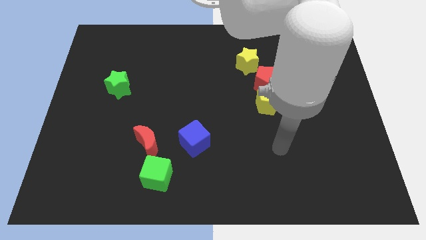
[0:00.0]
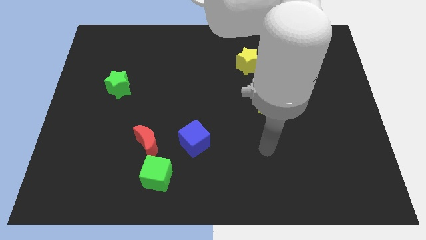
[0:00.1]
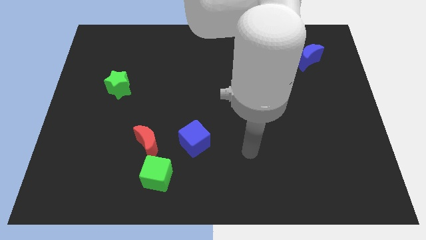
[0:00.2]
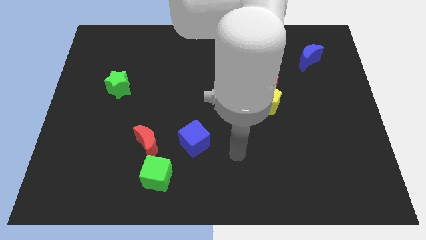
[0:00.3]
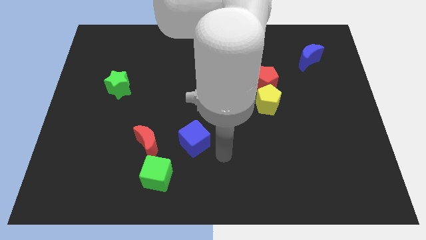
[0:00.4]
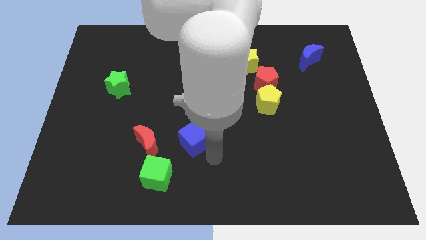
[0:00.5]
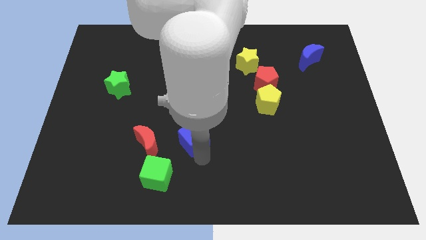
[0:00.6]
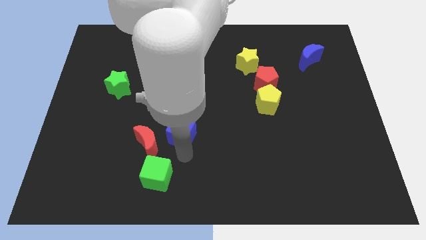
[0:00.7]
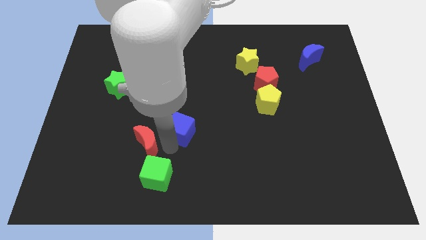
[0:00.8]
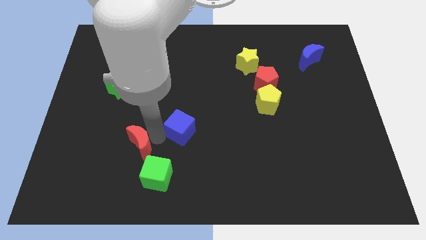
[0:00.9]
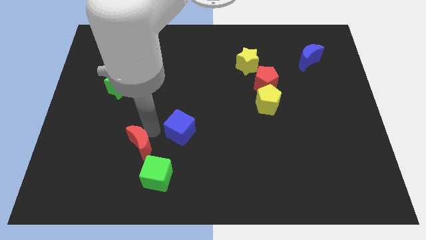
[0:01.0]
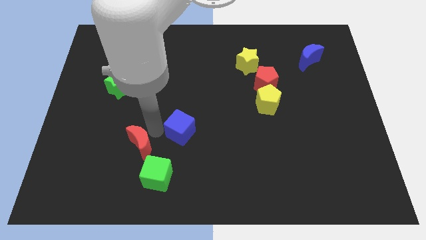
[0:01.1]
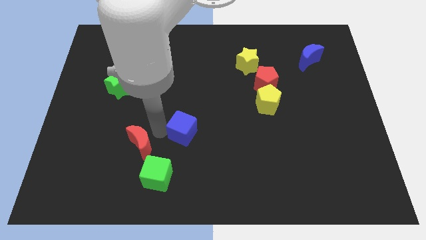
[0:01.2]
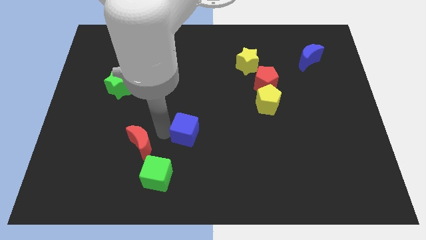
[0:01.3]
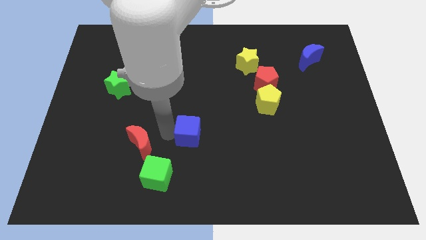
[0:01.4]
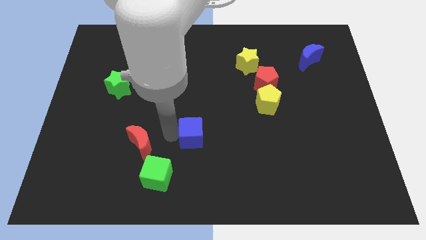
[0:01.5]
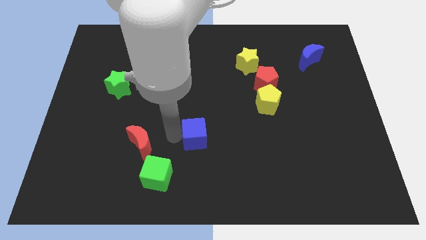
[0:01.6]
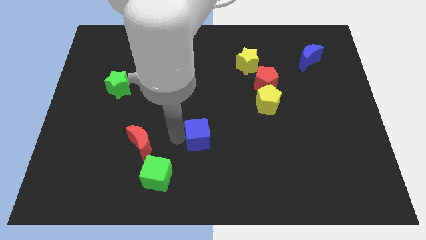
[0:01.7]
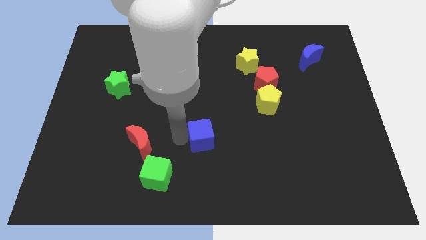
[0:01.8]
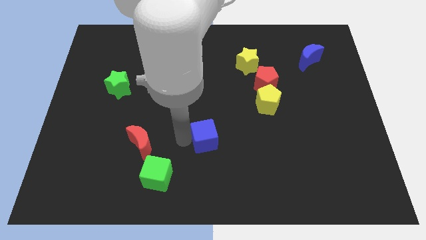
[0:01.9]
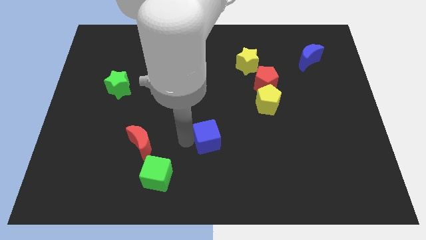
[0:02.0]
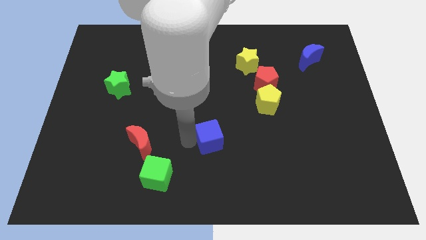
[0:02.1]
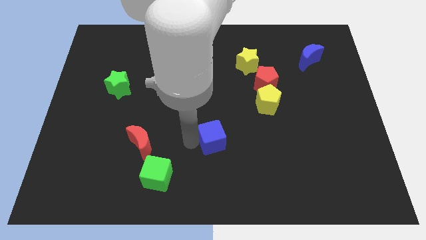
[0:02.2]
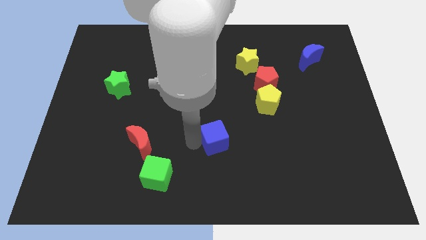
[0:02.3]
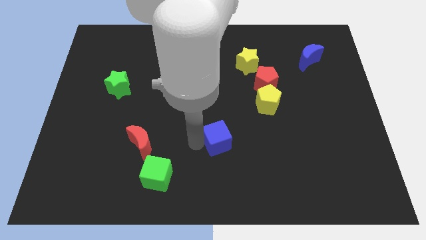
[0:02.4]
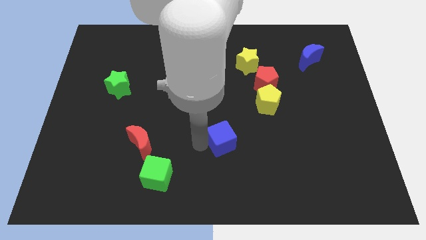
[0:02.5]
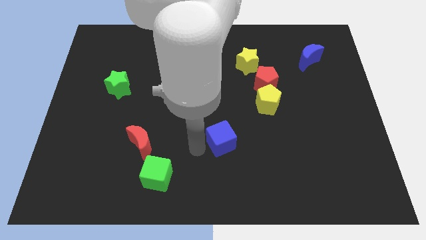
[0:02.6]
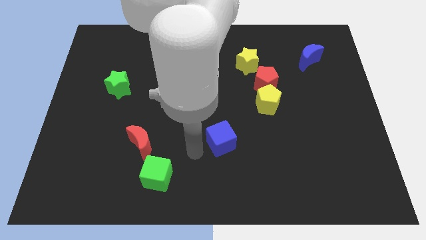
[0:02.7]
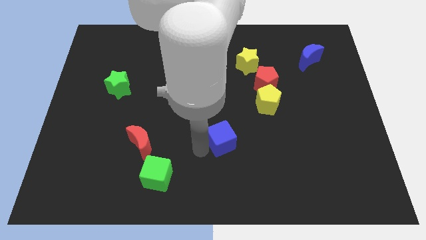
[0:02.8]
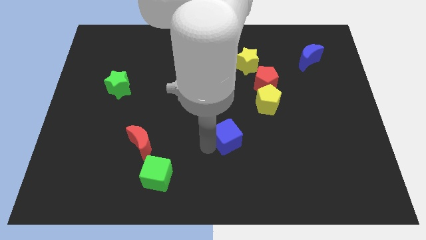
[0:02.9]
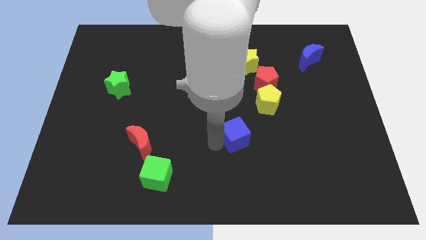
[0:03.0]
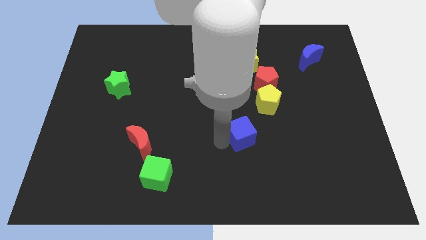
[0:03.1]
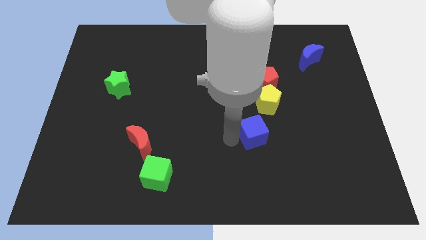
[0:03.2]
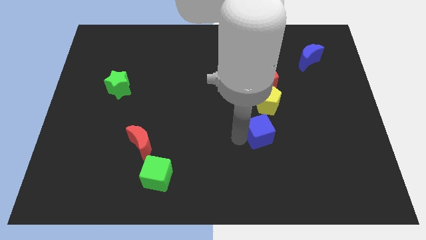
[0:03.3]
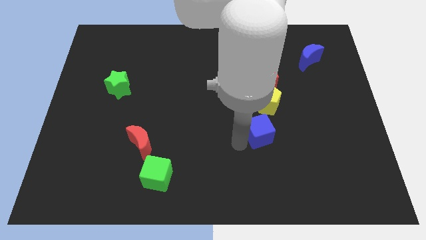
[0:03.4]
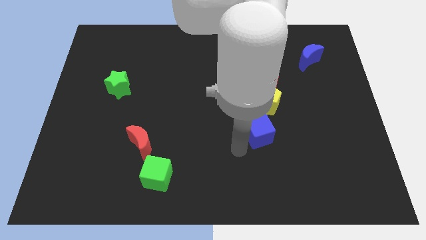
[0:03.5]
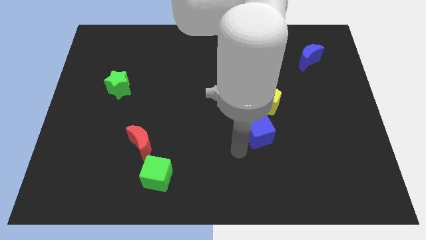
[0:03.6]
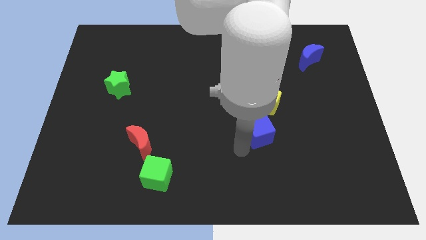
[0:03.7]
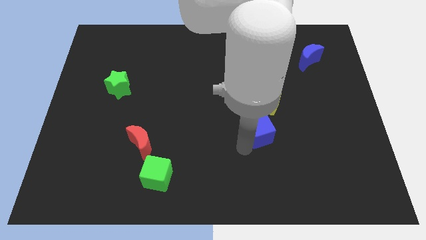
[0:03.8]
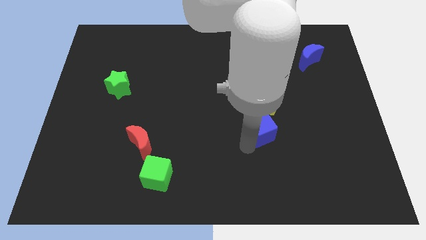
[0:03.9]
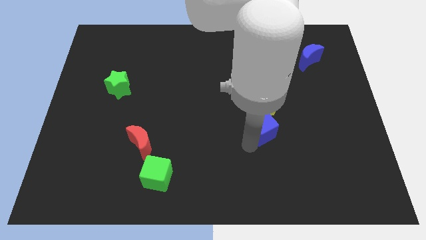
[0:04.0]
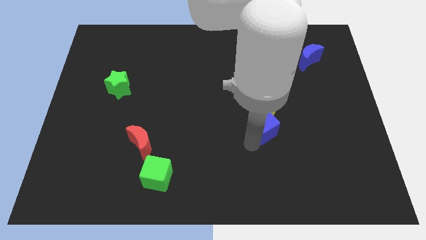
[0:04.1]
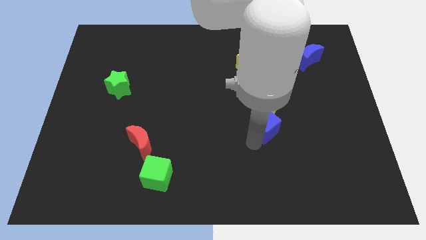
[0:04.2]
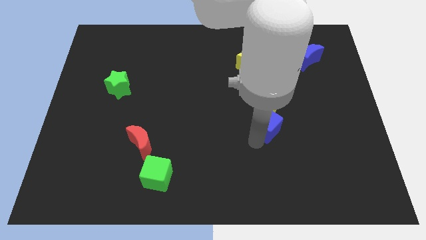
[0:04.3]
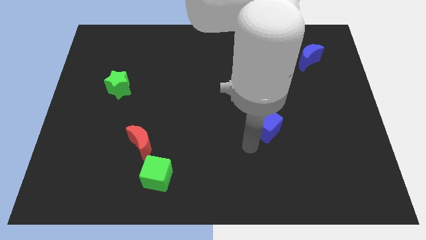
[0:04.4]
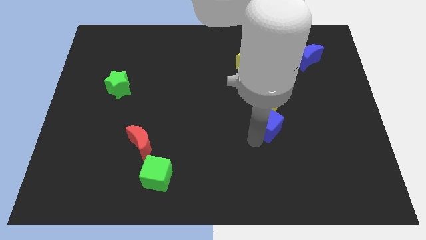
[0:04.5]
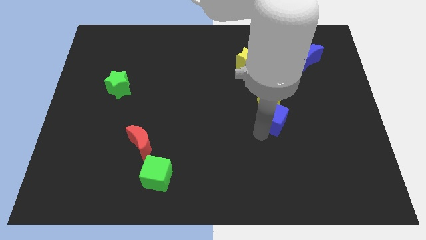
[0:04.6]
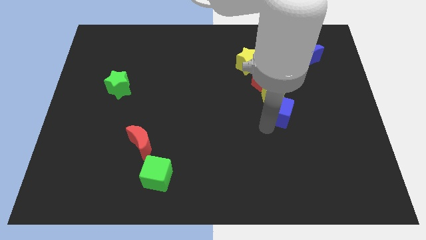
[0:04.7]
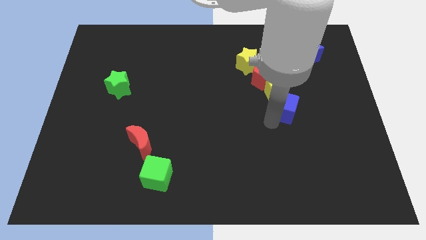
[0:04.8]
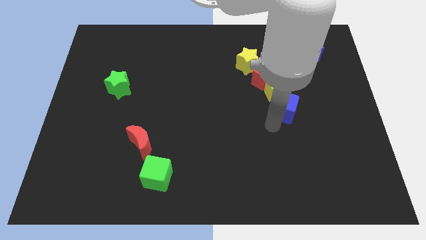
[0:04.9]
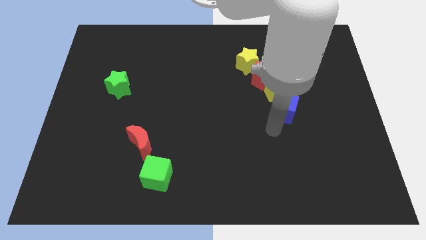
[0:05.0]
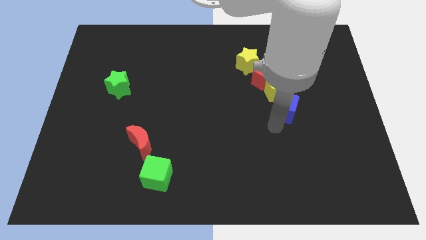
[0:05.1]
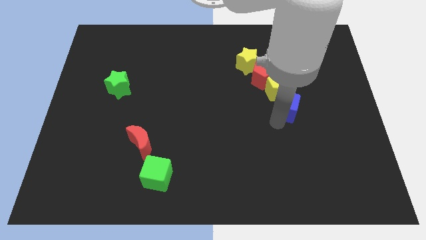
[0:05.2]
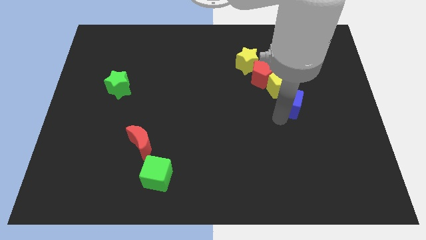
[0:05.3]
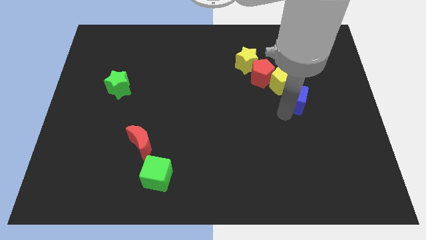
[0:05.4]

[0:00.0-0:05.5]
push the blue cube diagonally up and right

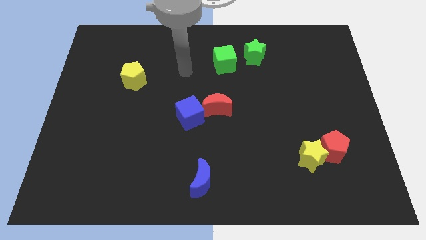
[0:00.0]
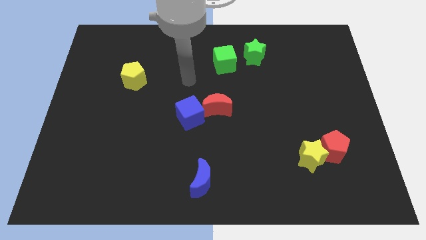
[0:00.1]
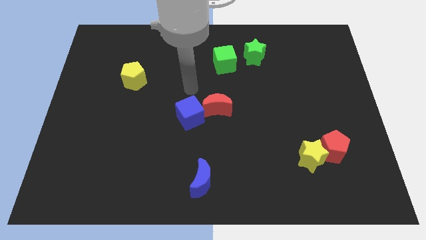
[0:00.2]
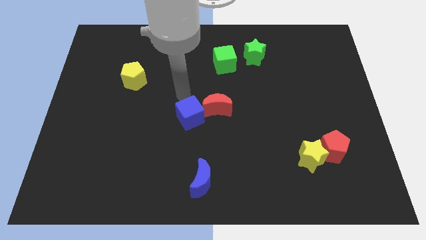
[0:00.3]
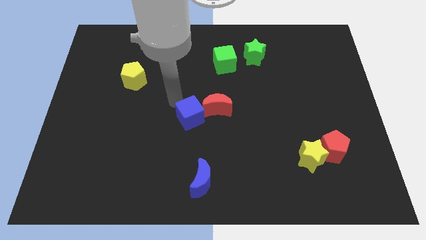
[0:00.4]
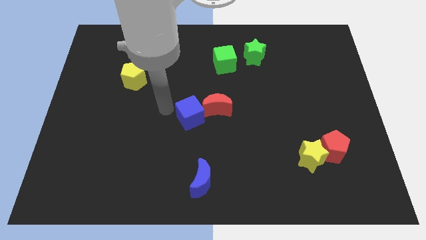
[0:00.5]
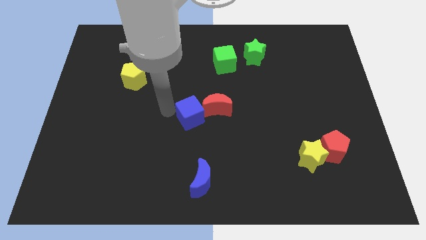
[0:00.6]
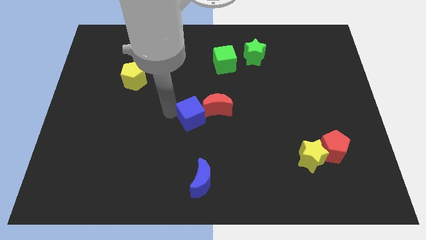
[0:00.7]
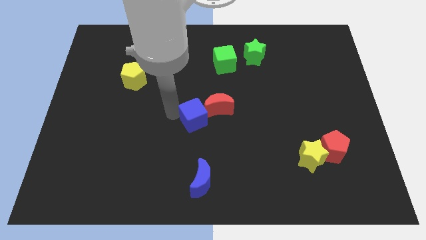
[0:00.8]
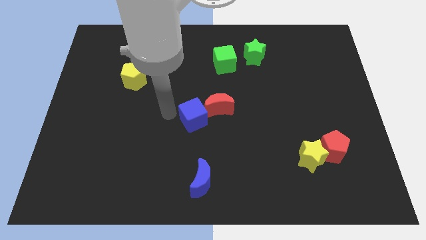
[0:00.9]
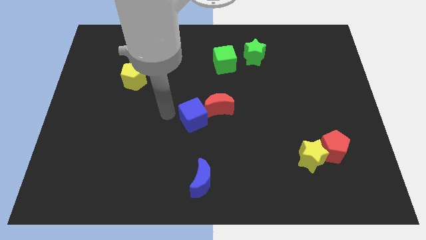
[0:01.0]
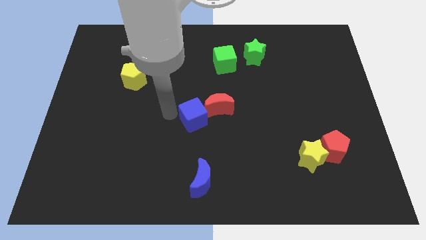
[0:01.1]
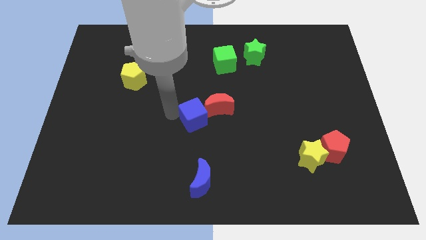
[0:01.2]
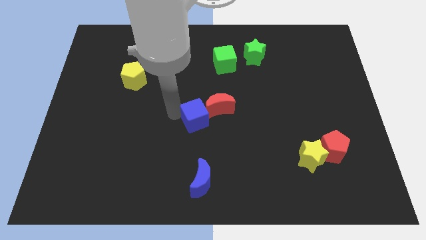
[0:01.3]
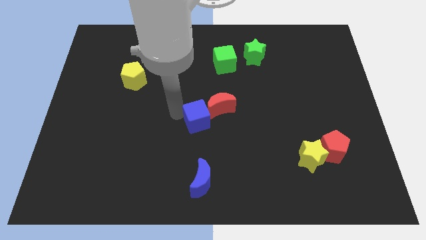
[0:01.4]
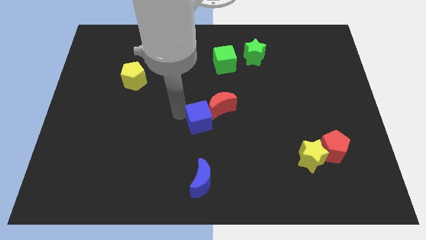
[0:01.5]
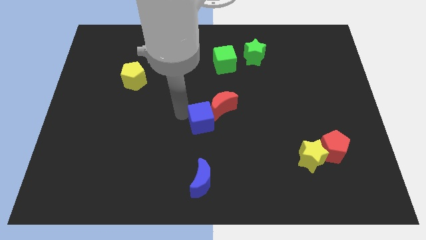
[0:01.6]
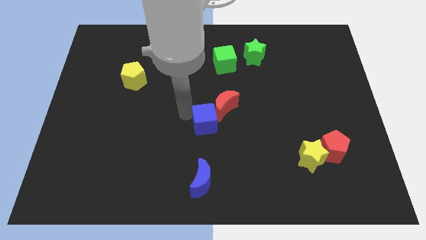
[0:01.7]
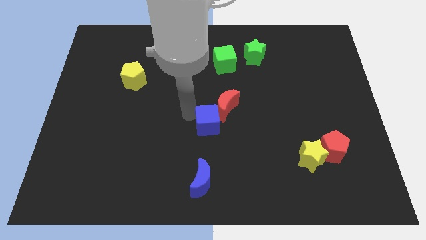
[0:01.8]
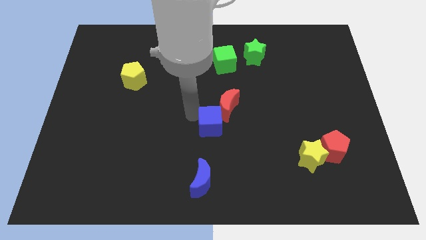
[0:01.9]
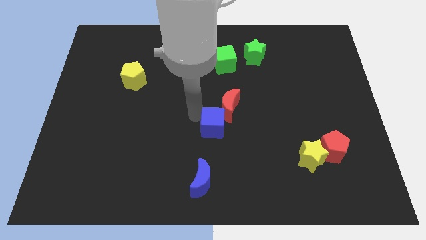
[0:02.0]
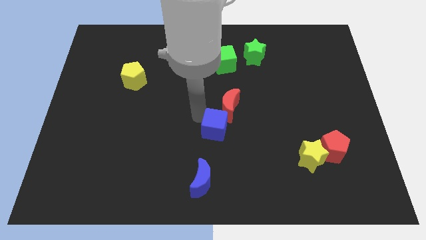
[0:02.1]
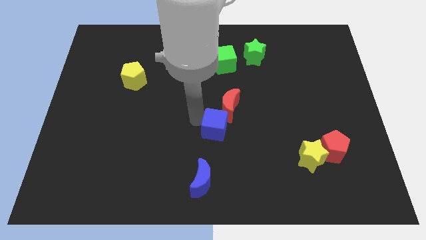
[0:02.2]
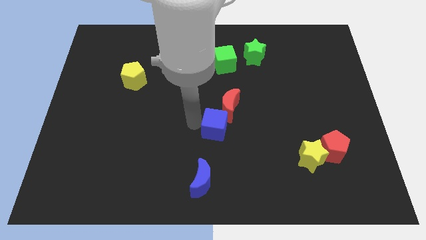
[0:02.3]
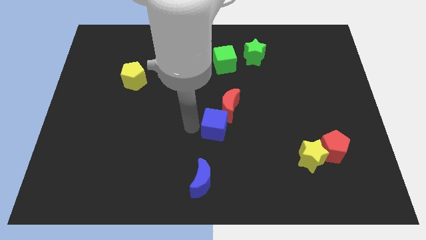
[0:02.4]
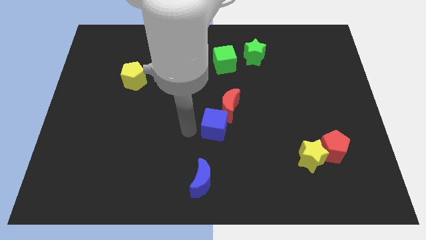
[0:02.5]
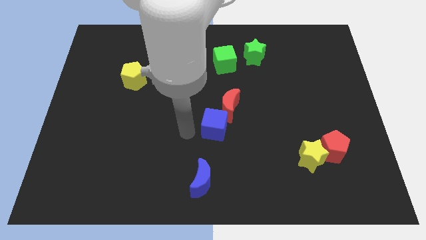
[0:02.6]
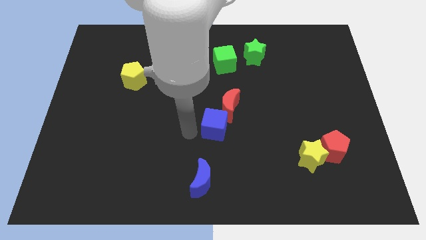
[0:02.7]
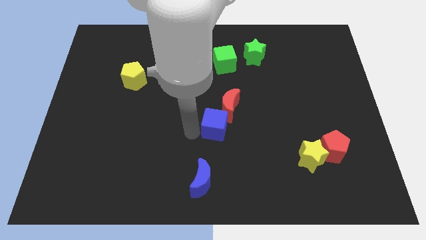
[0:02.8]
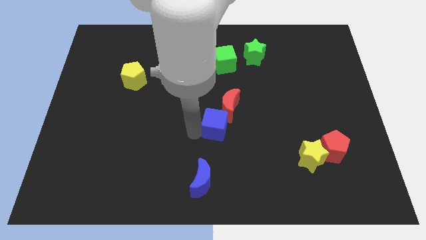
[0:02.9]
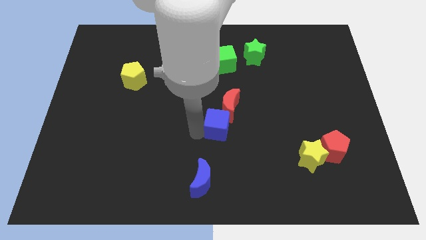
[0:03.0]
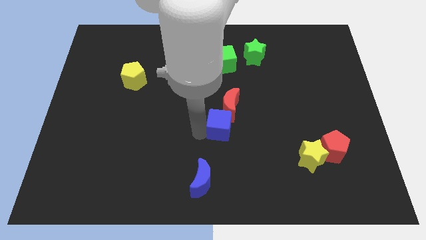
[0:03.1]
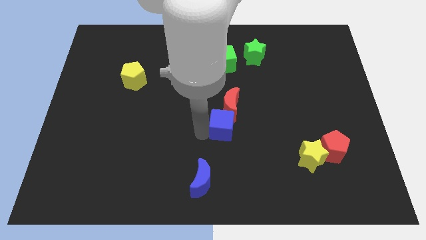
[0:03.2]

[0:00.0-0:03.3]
push the blue cube right slightly
